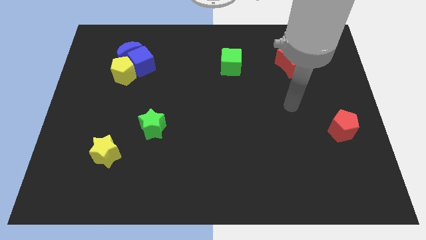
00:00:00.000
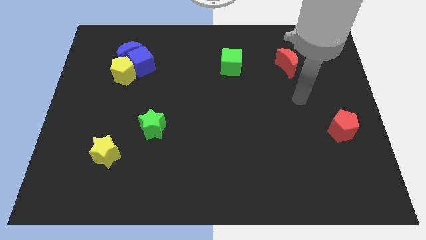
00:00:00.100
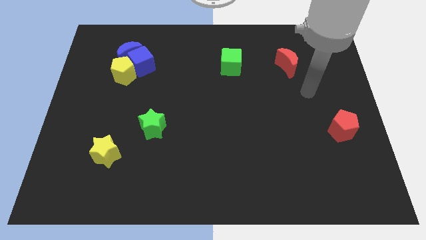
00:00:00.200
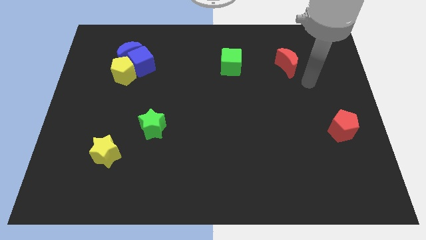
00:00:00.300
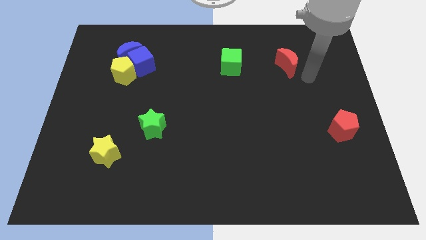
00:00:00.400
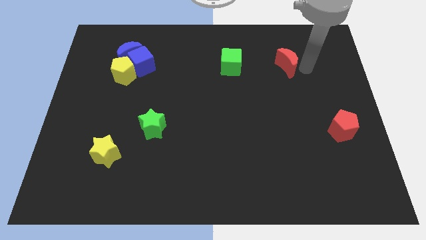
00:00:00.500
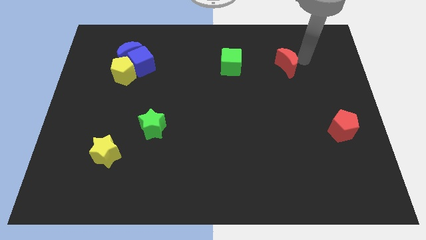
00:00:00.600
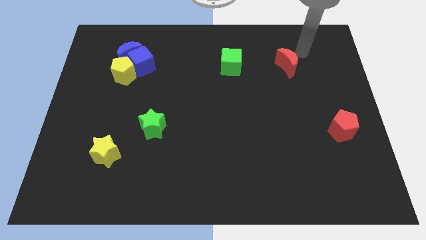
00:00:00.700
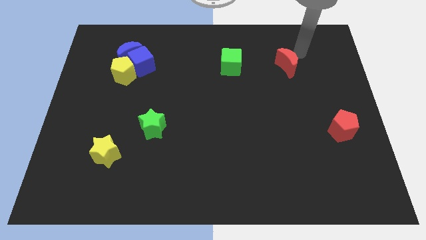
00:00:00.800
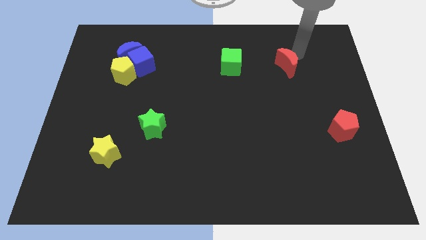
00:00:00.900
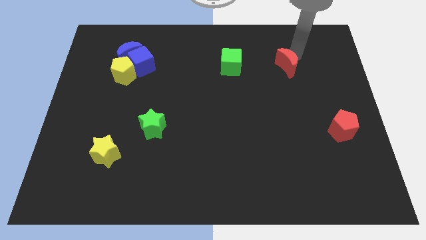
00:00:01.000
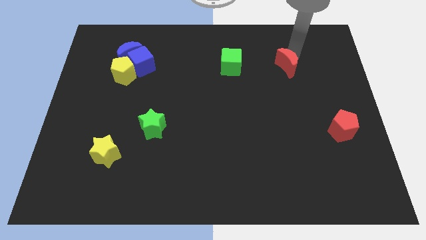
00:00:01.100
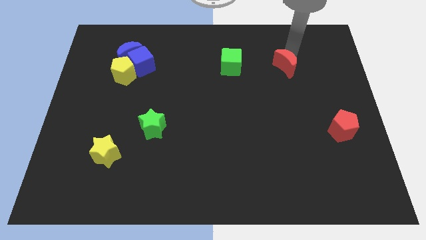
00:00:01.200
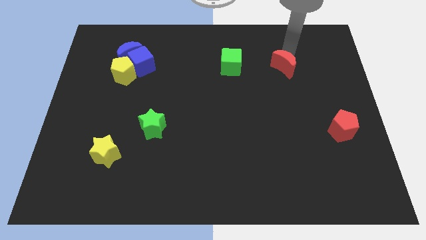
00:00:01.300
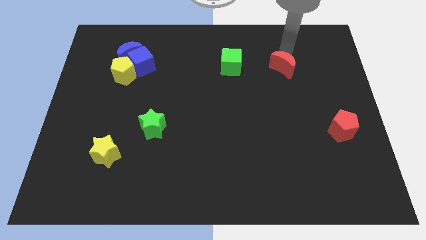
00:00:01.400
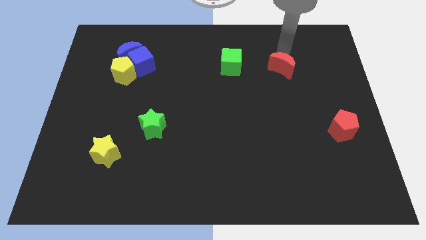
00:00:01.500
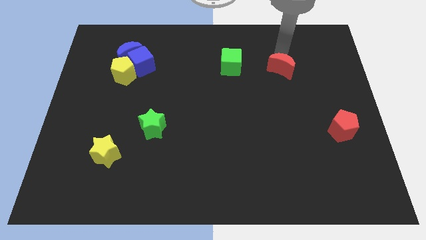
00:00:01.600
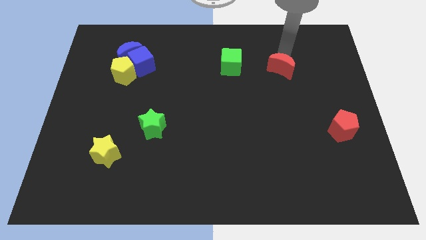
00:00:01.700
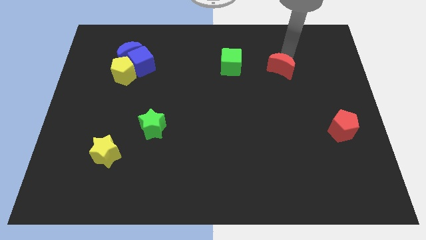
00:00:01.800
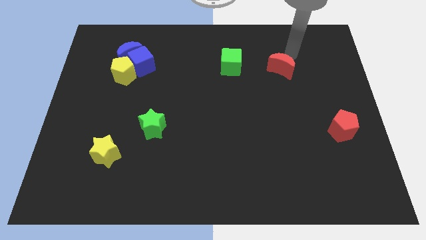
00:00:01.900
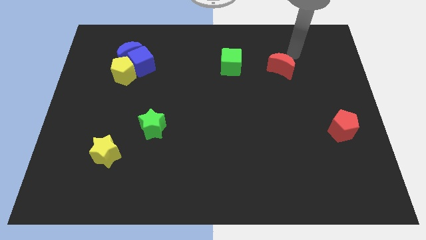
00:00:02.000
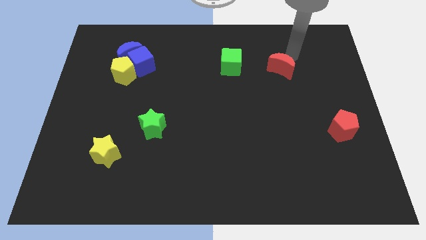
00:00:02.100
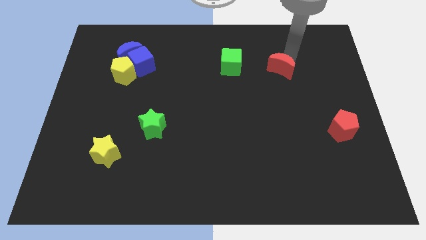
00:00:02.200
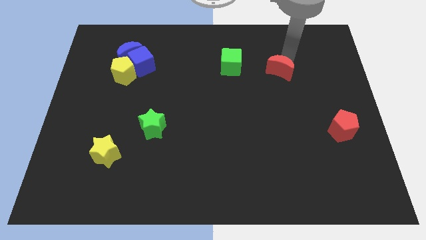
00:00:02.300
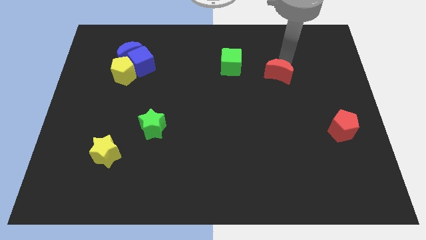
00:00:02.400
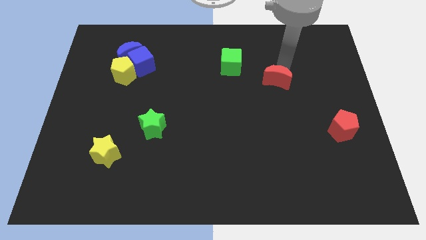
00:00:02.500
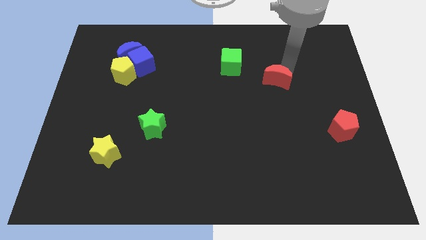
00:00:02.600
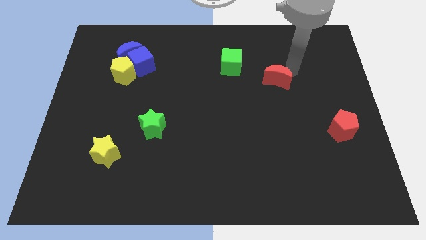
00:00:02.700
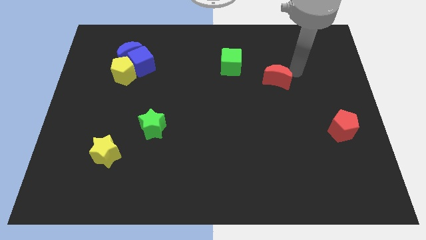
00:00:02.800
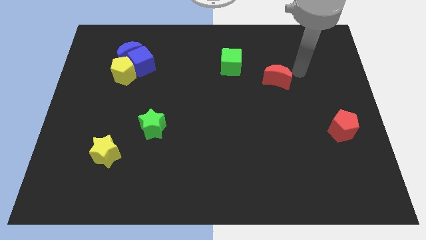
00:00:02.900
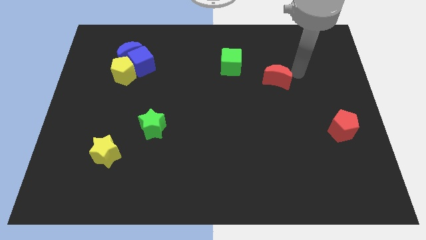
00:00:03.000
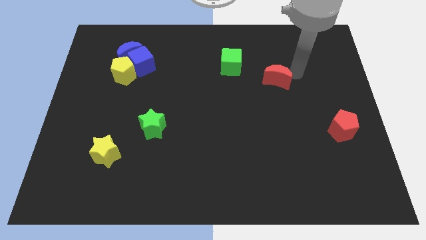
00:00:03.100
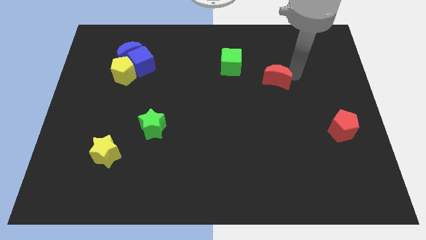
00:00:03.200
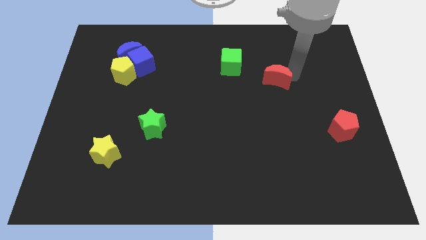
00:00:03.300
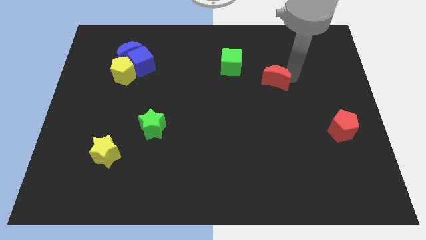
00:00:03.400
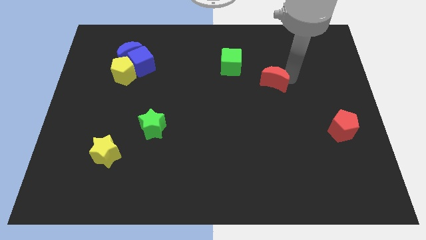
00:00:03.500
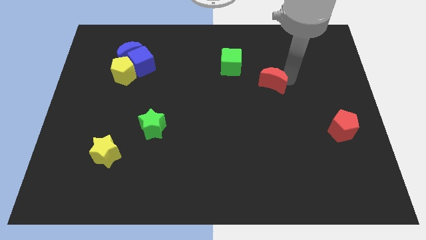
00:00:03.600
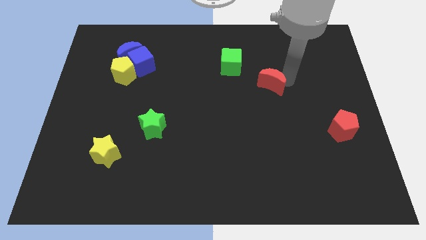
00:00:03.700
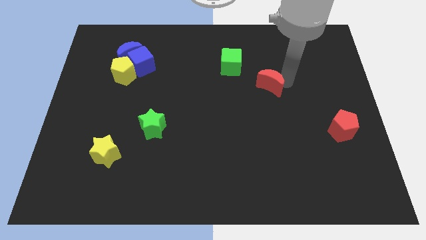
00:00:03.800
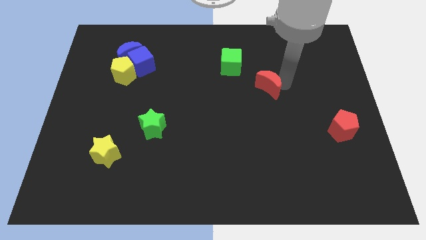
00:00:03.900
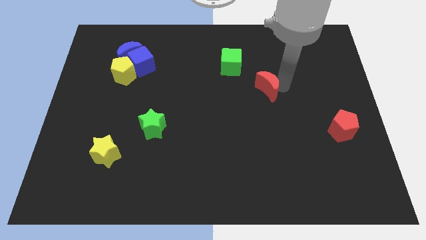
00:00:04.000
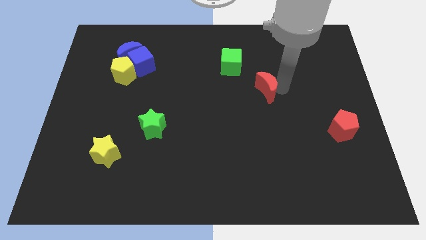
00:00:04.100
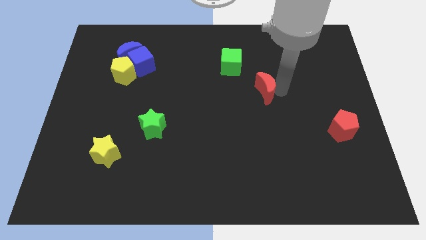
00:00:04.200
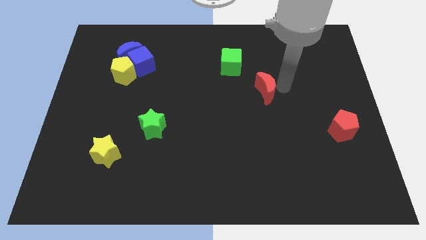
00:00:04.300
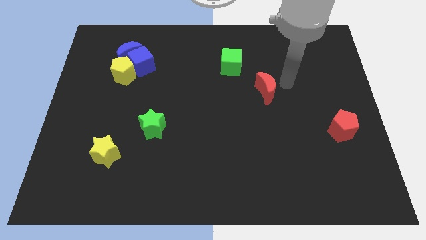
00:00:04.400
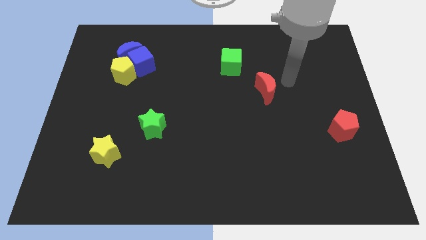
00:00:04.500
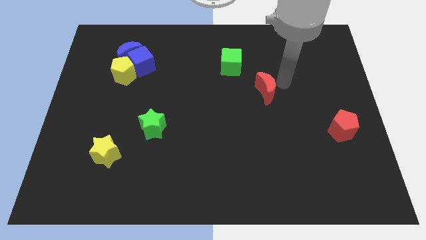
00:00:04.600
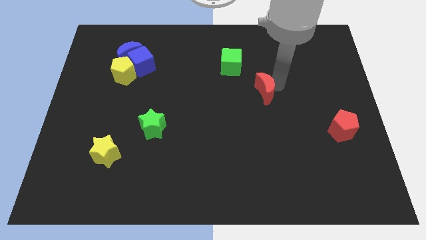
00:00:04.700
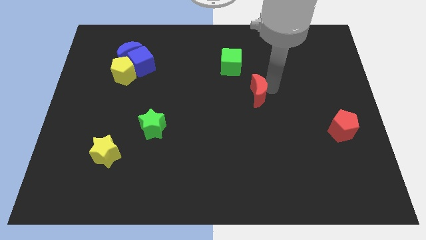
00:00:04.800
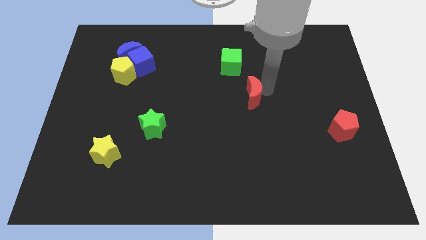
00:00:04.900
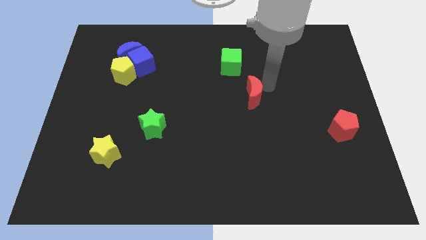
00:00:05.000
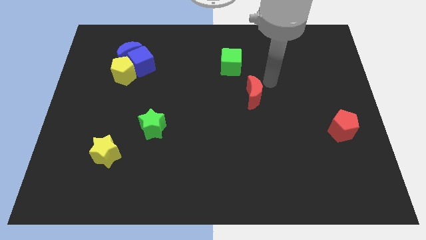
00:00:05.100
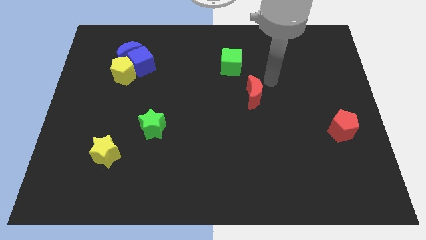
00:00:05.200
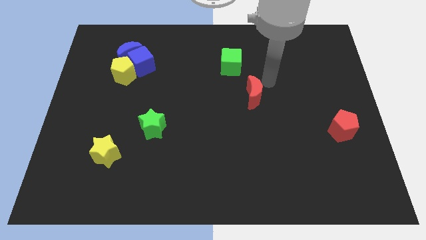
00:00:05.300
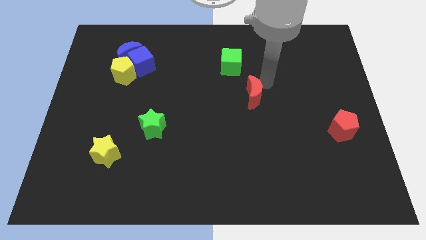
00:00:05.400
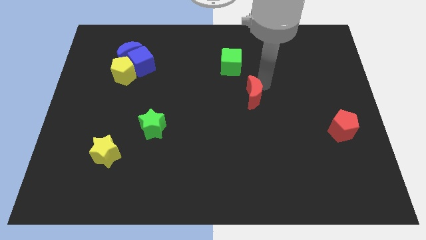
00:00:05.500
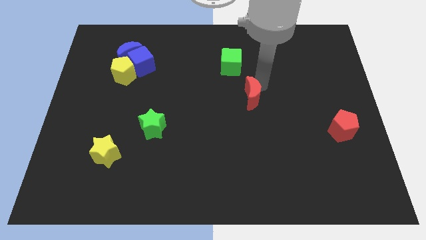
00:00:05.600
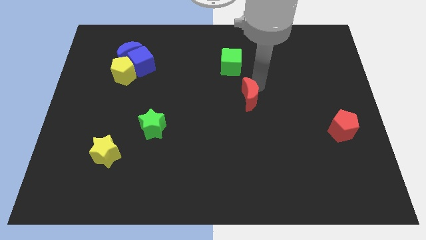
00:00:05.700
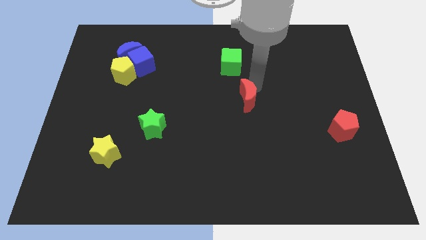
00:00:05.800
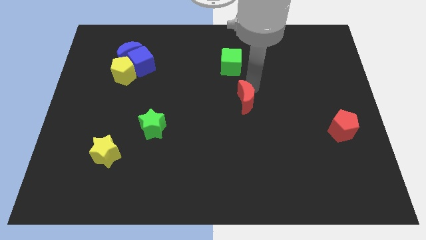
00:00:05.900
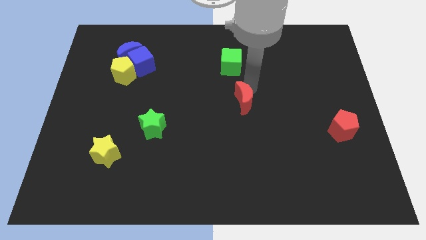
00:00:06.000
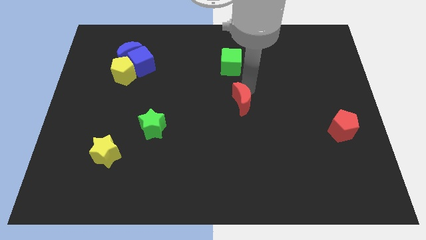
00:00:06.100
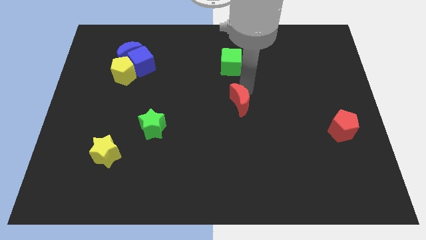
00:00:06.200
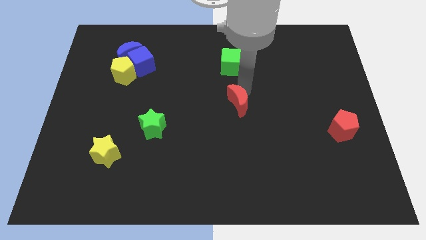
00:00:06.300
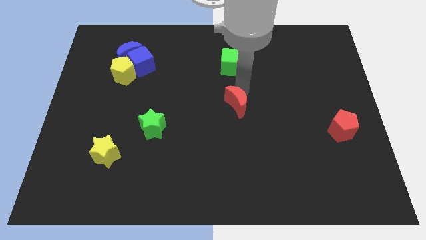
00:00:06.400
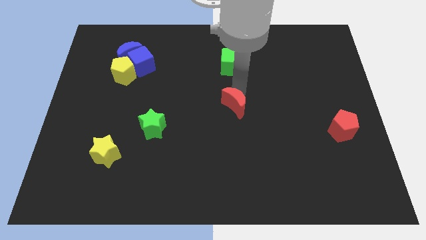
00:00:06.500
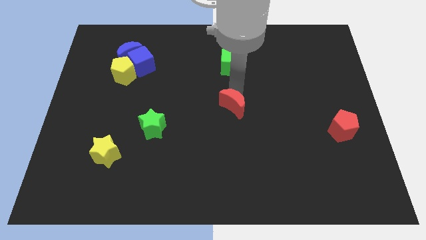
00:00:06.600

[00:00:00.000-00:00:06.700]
push the red moon down and then to the left

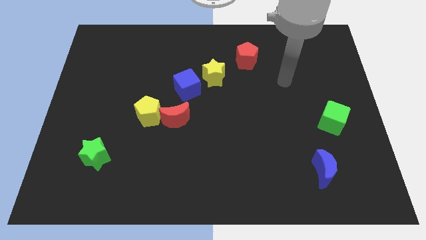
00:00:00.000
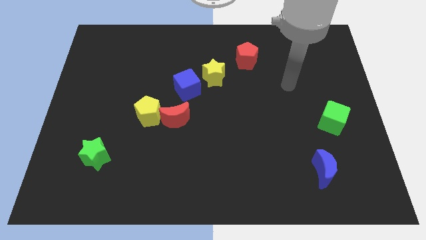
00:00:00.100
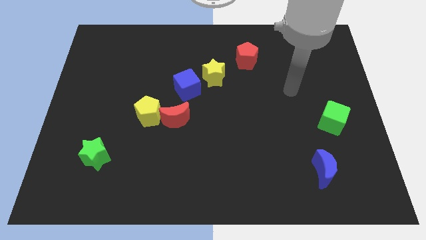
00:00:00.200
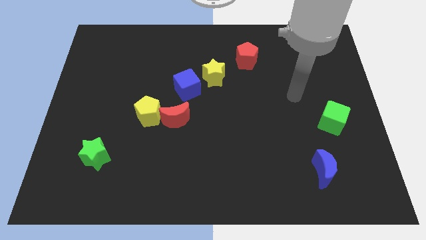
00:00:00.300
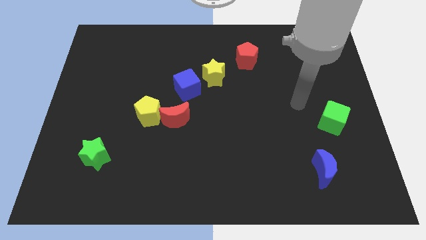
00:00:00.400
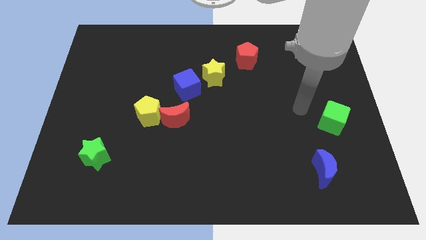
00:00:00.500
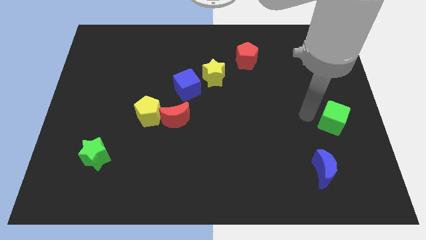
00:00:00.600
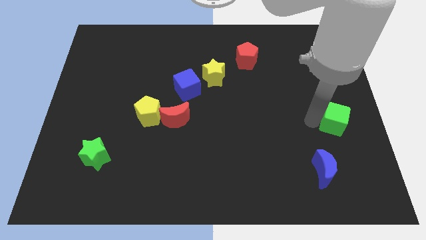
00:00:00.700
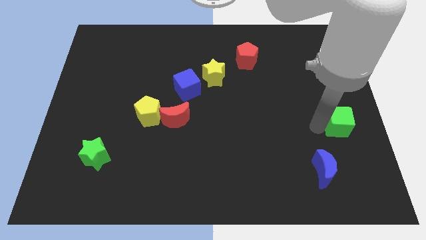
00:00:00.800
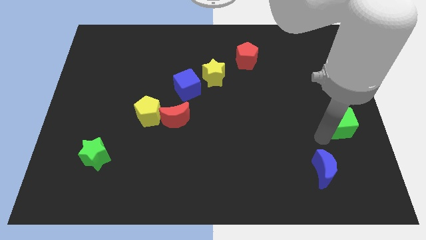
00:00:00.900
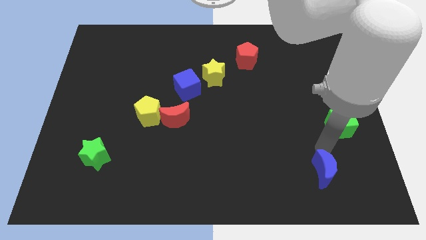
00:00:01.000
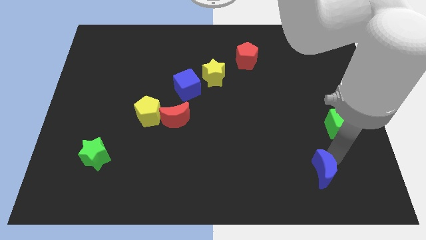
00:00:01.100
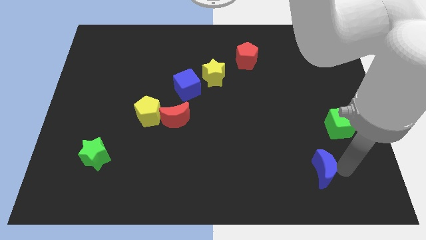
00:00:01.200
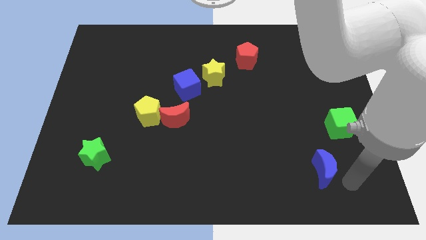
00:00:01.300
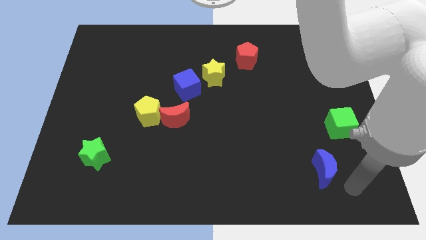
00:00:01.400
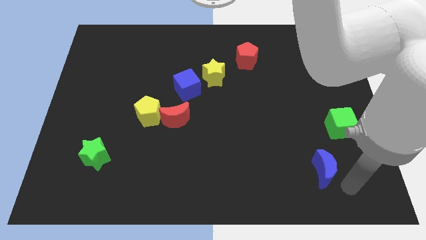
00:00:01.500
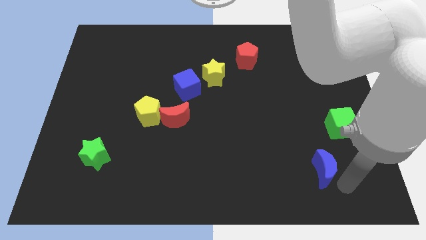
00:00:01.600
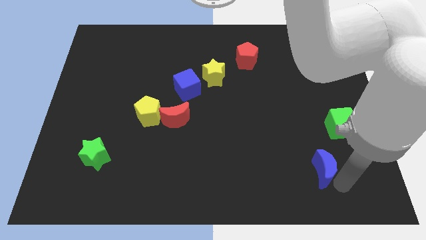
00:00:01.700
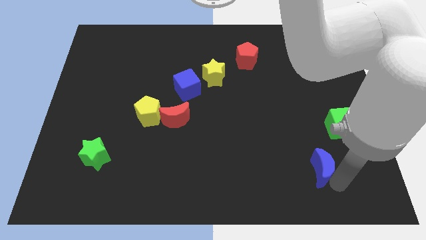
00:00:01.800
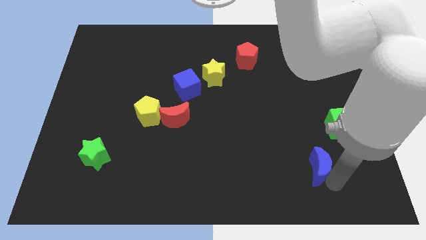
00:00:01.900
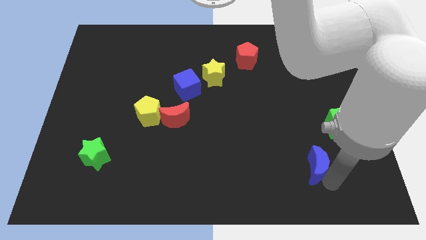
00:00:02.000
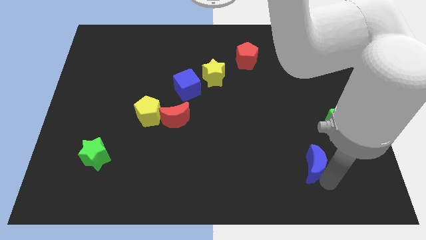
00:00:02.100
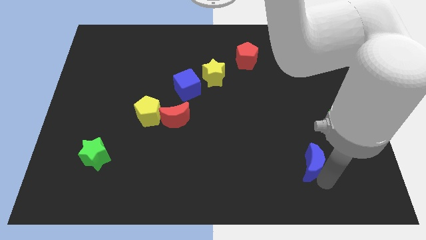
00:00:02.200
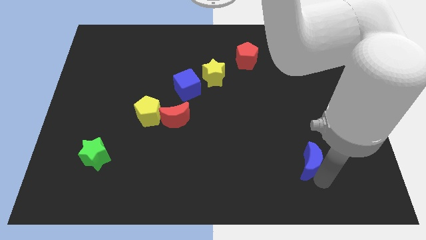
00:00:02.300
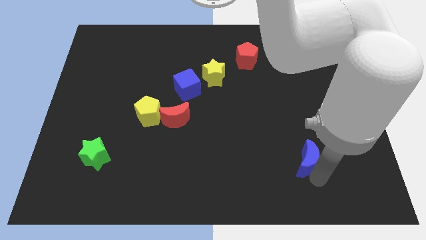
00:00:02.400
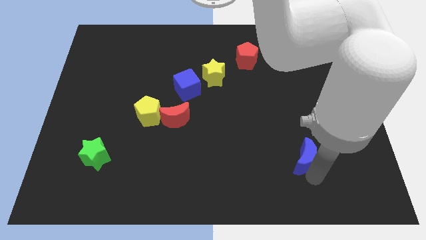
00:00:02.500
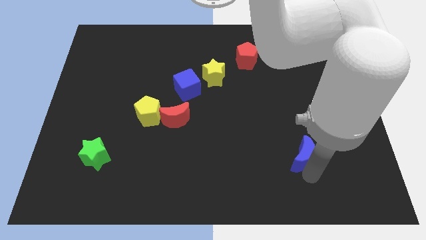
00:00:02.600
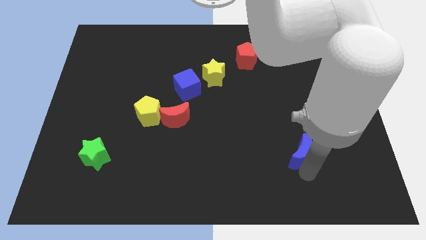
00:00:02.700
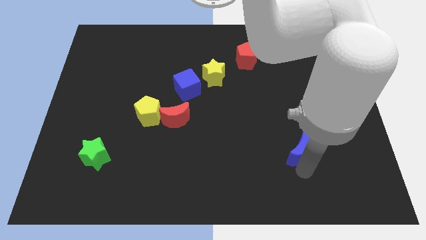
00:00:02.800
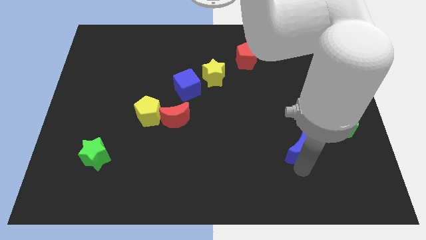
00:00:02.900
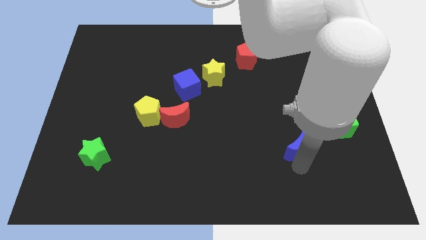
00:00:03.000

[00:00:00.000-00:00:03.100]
slide the blue moon a little upwards and to the left
